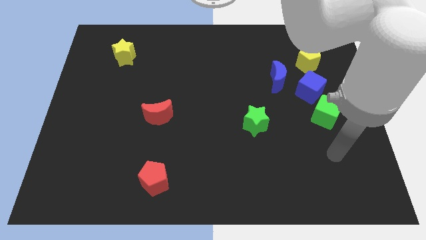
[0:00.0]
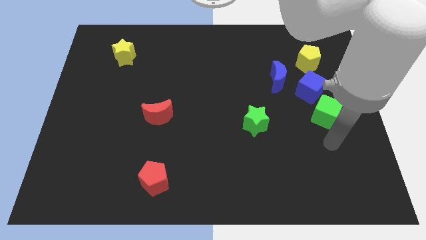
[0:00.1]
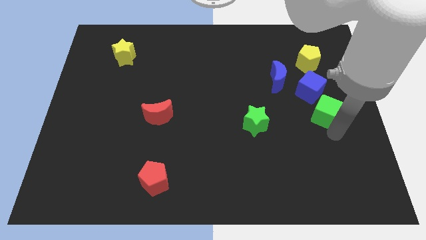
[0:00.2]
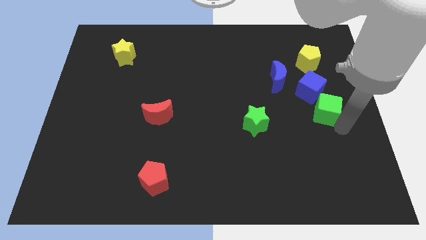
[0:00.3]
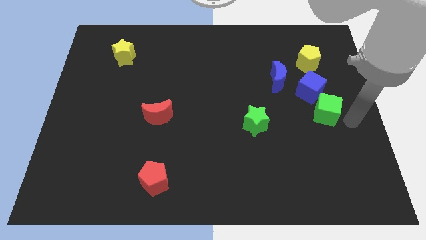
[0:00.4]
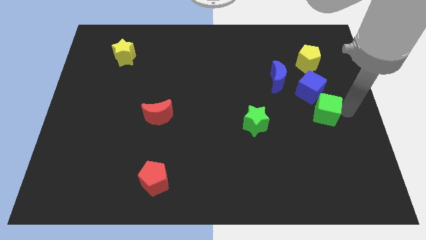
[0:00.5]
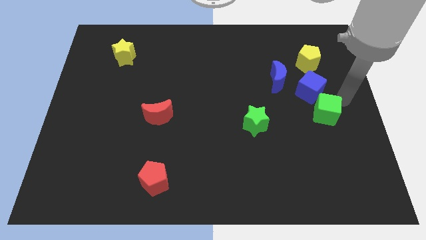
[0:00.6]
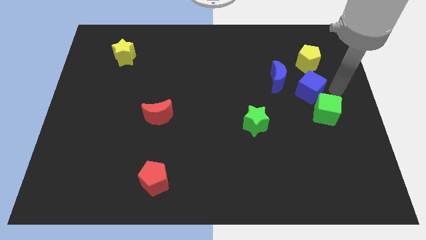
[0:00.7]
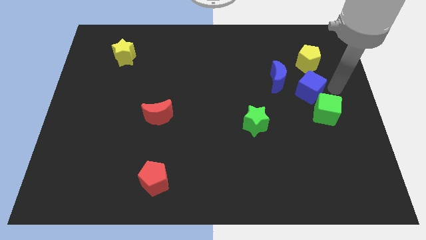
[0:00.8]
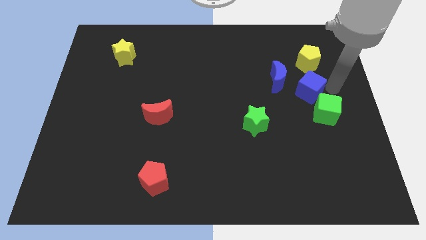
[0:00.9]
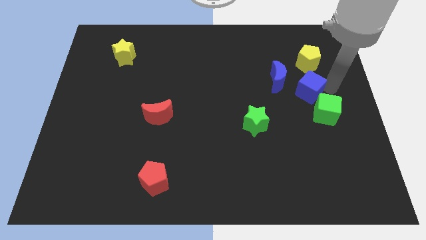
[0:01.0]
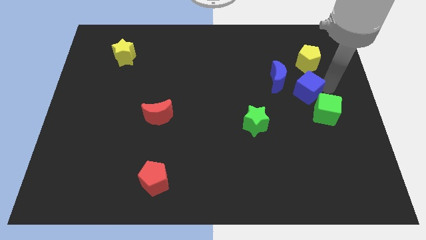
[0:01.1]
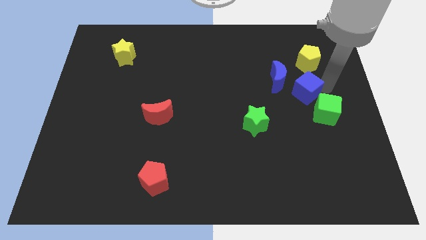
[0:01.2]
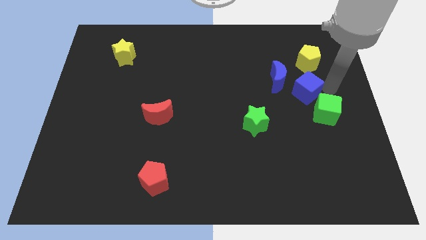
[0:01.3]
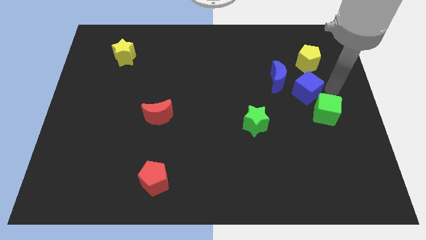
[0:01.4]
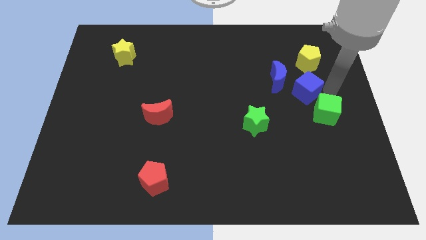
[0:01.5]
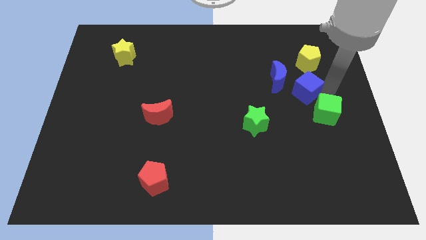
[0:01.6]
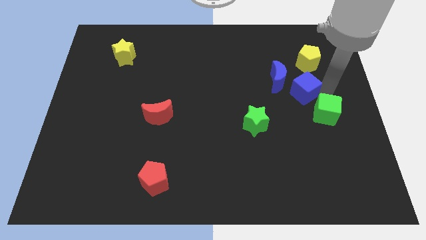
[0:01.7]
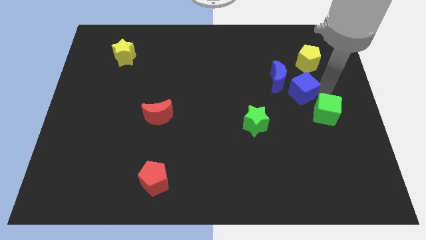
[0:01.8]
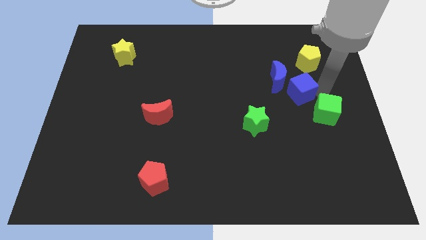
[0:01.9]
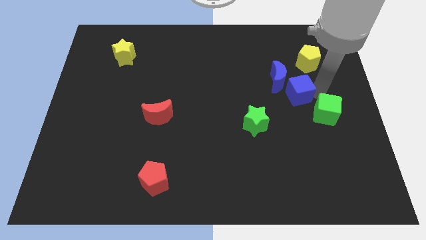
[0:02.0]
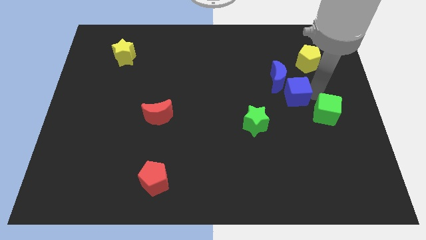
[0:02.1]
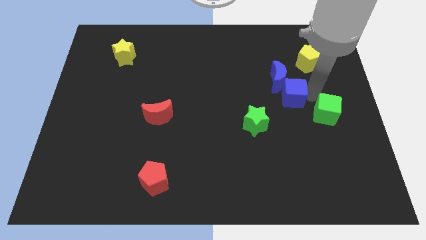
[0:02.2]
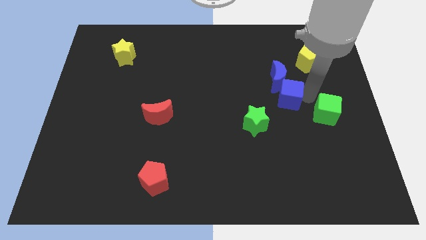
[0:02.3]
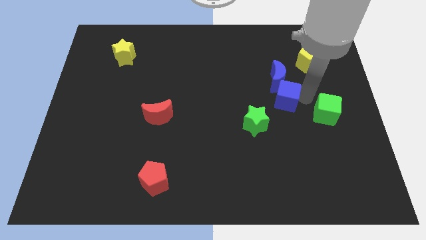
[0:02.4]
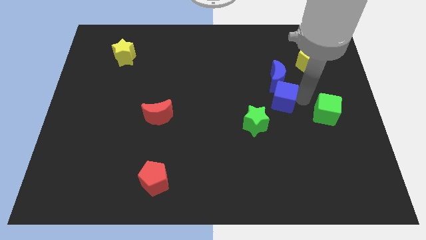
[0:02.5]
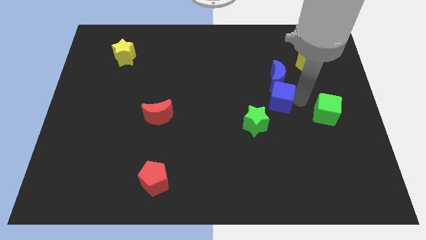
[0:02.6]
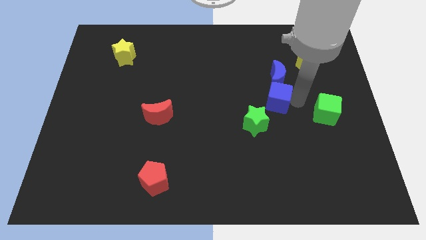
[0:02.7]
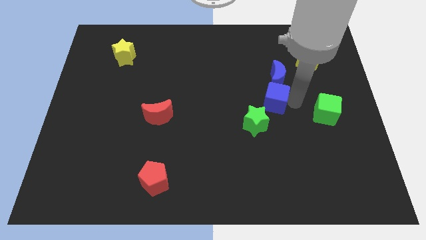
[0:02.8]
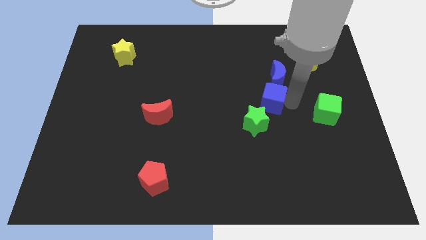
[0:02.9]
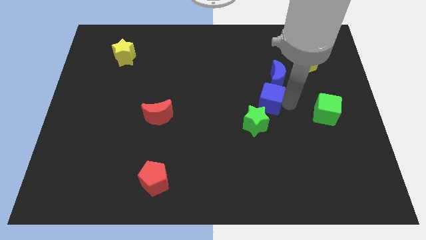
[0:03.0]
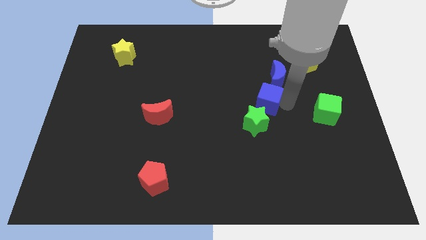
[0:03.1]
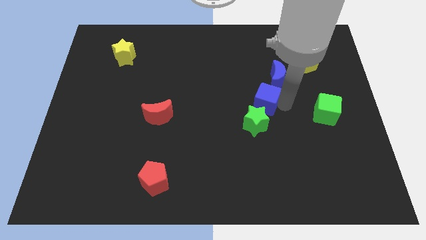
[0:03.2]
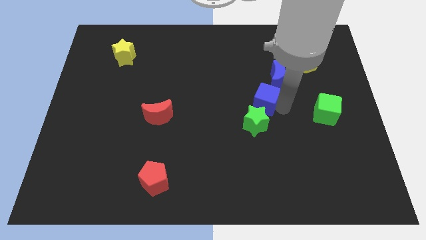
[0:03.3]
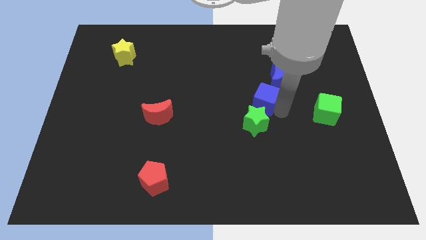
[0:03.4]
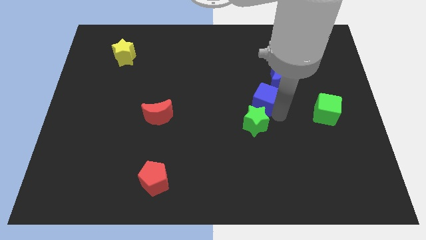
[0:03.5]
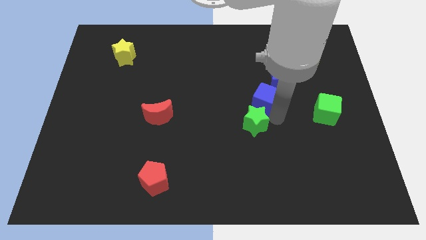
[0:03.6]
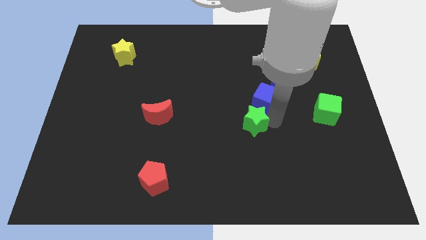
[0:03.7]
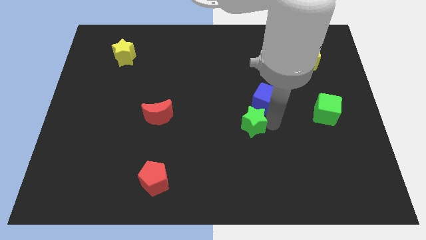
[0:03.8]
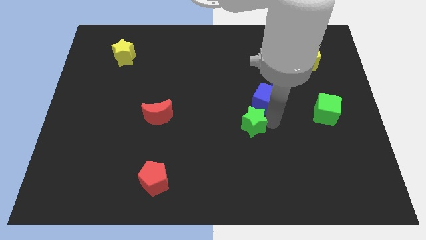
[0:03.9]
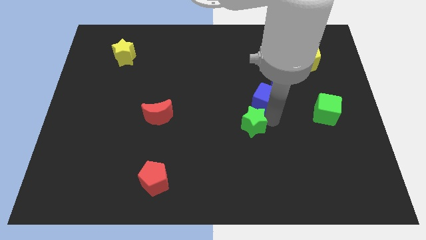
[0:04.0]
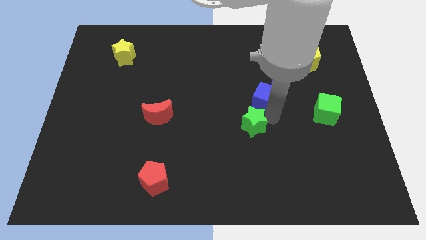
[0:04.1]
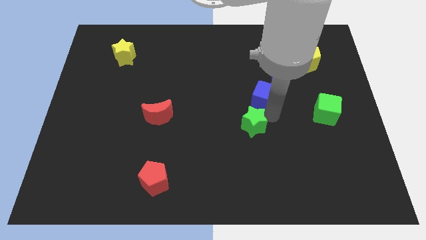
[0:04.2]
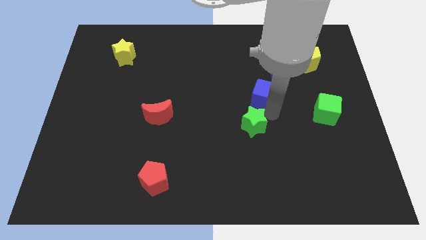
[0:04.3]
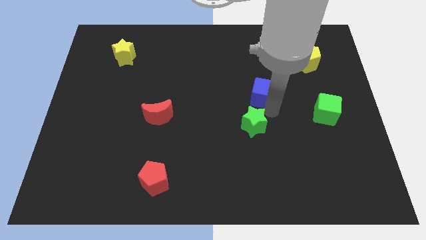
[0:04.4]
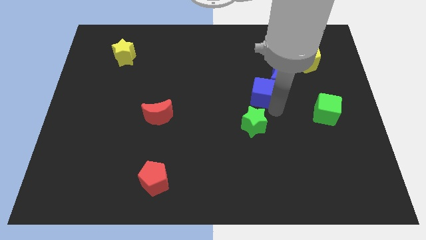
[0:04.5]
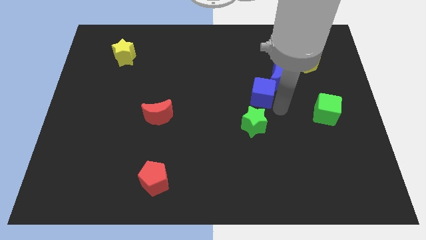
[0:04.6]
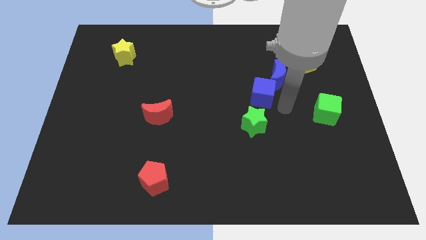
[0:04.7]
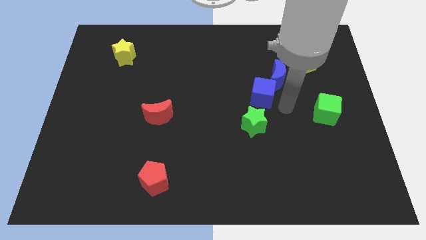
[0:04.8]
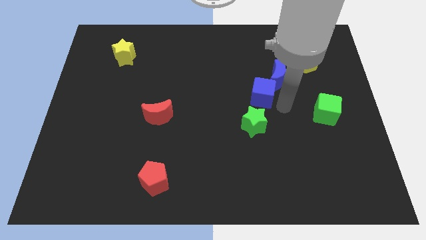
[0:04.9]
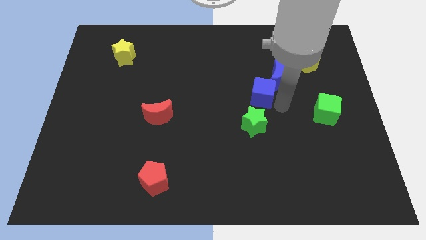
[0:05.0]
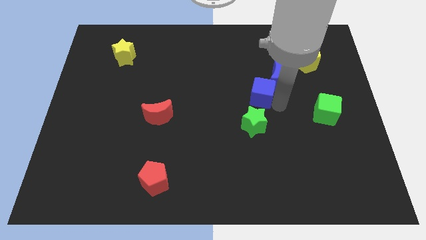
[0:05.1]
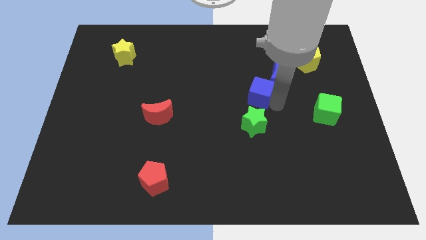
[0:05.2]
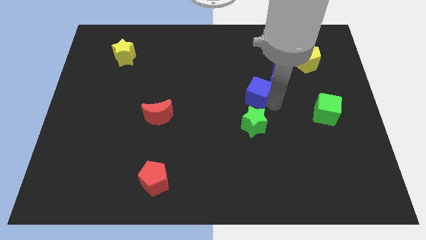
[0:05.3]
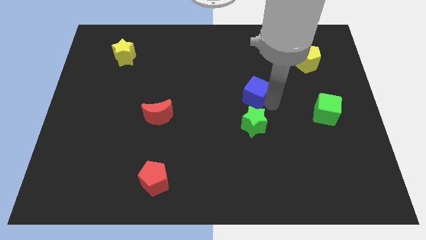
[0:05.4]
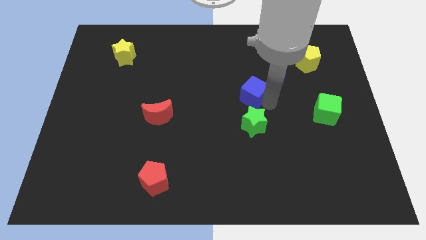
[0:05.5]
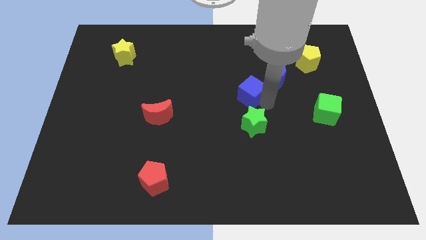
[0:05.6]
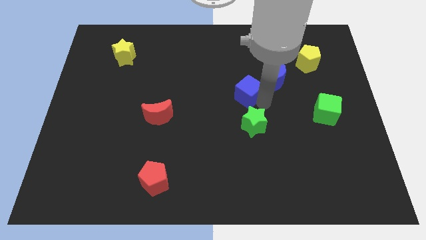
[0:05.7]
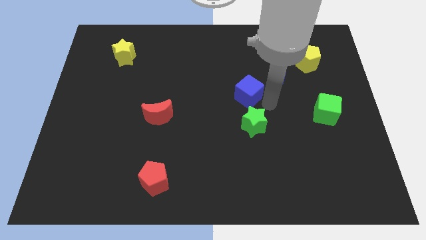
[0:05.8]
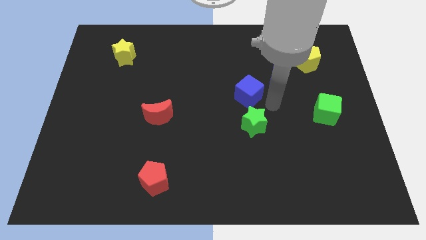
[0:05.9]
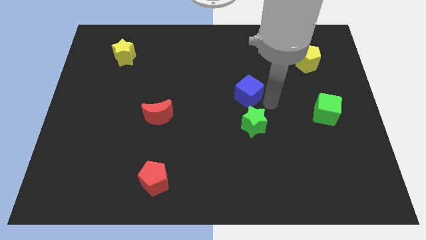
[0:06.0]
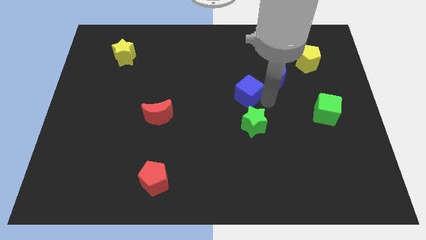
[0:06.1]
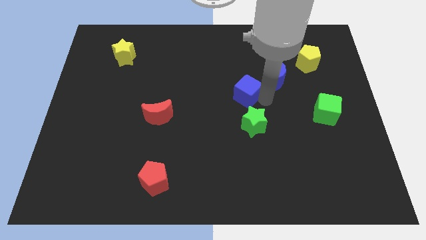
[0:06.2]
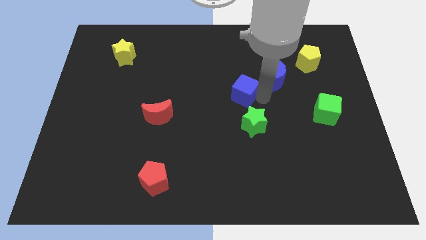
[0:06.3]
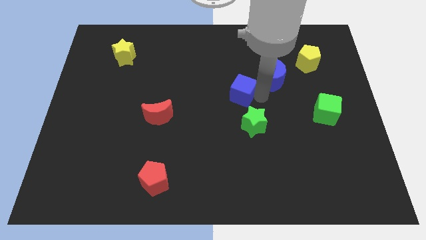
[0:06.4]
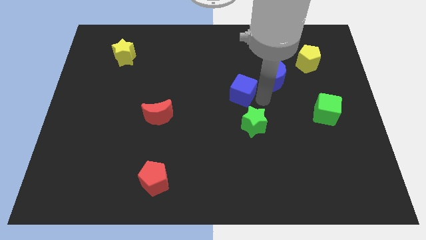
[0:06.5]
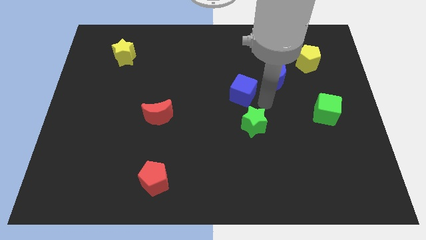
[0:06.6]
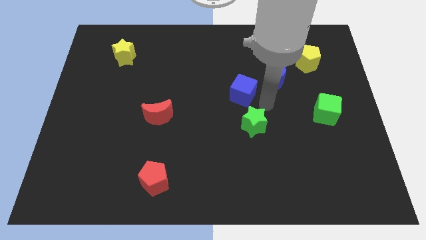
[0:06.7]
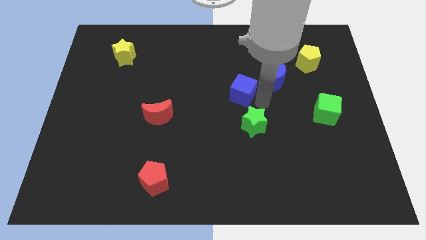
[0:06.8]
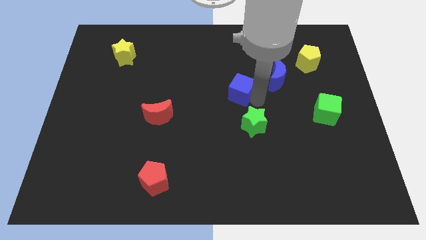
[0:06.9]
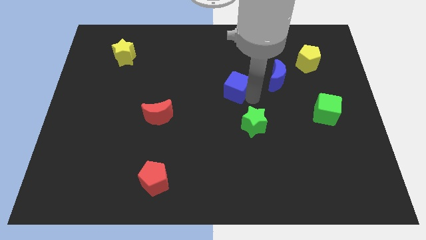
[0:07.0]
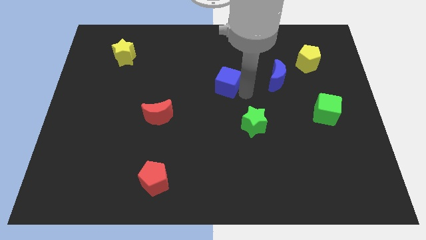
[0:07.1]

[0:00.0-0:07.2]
slide the blue cube left

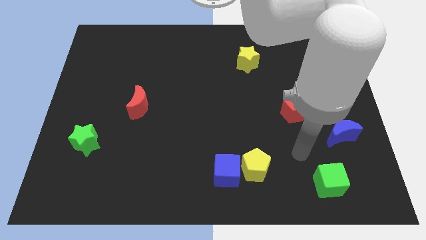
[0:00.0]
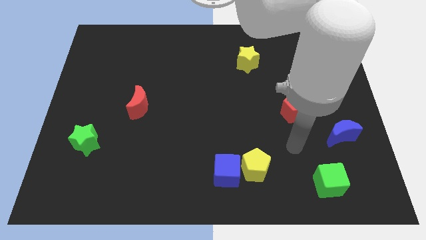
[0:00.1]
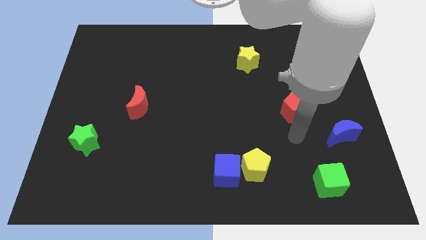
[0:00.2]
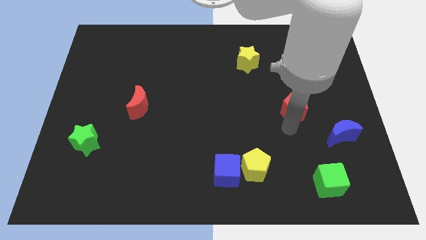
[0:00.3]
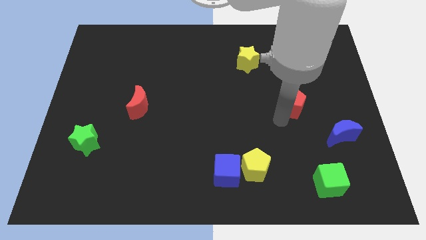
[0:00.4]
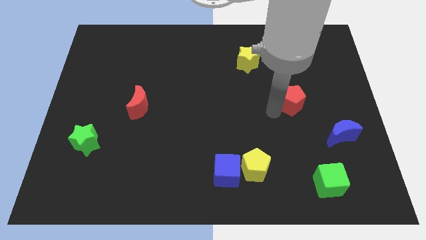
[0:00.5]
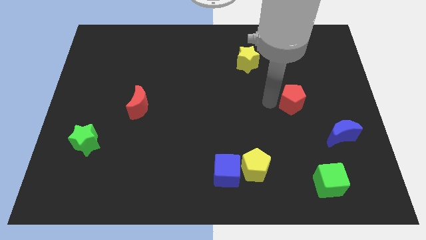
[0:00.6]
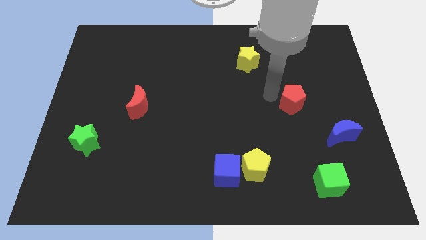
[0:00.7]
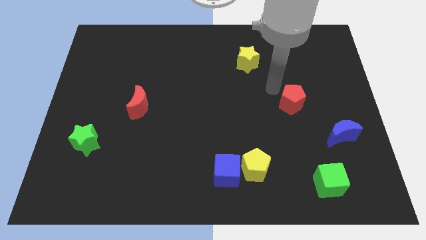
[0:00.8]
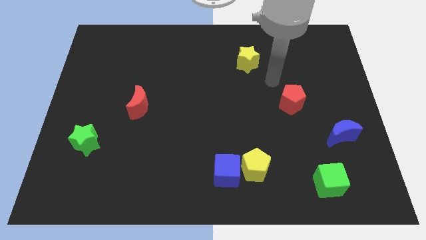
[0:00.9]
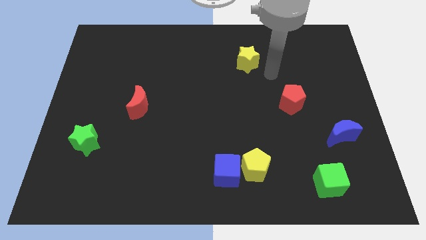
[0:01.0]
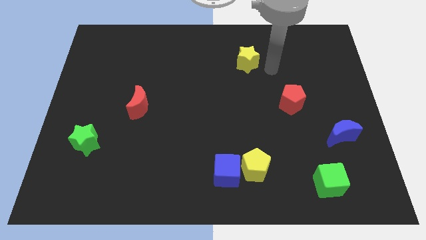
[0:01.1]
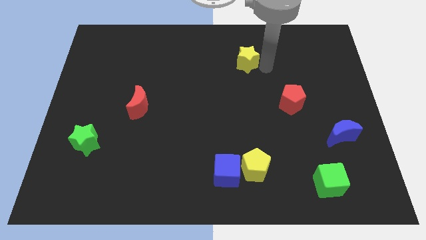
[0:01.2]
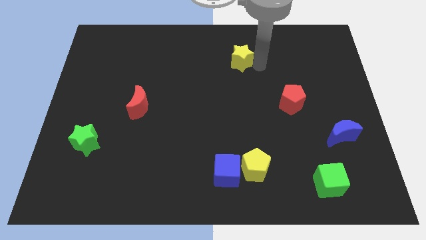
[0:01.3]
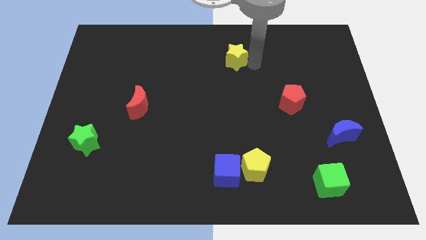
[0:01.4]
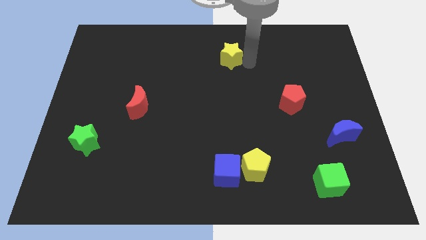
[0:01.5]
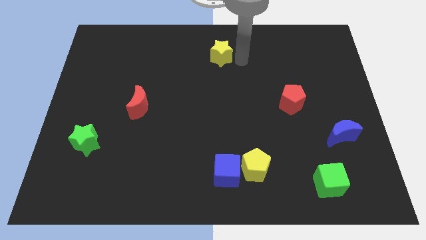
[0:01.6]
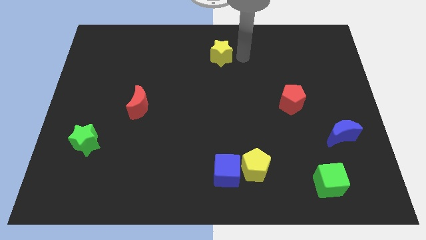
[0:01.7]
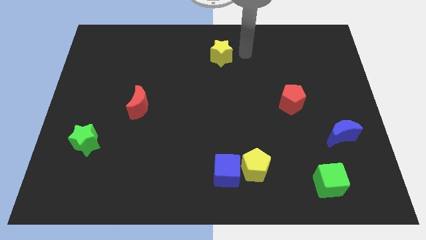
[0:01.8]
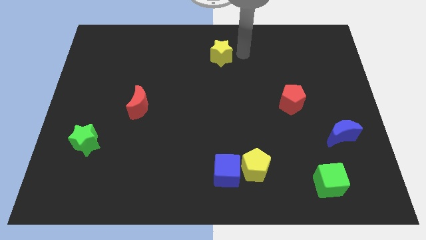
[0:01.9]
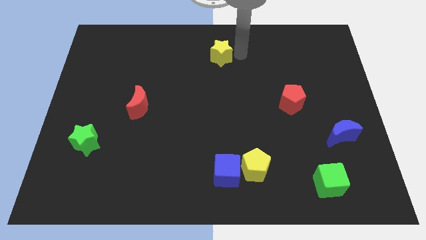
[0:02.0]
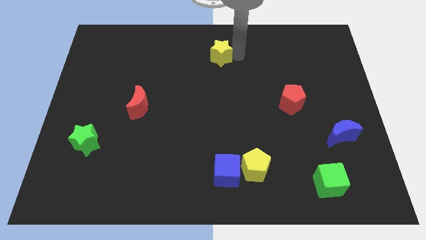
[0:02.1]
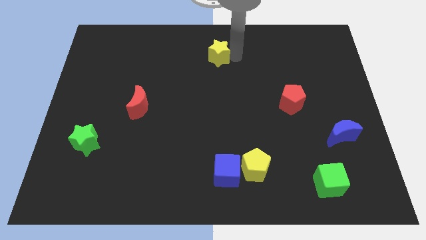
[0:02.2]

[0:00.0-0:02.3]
move the yellow star left a little bit
